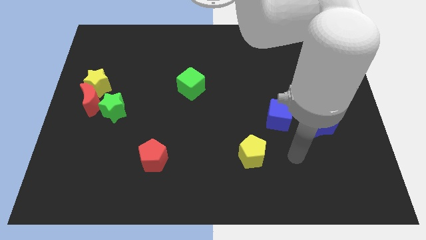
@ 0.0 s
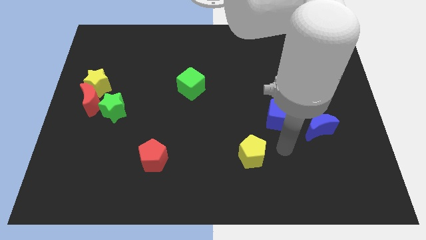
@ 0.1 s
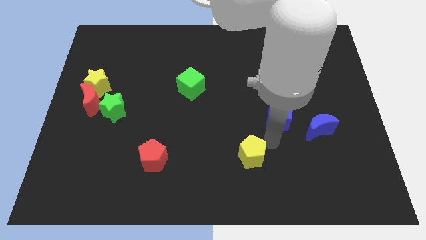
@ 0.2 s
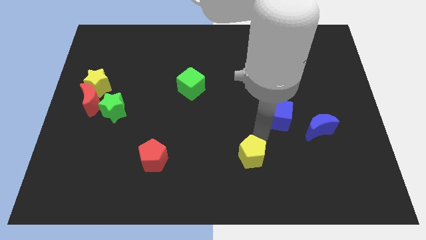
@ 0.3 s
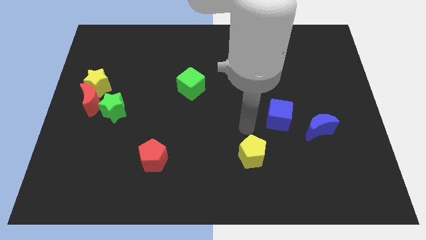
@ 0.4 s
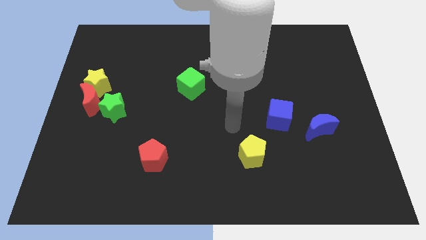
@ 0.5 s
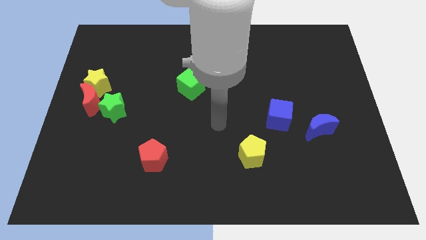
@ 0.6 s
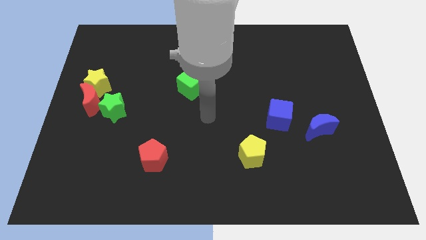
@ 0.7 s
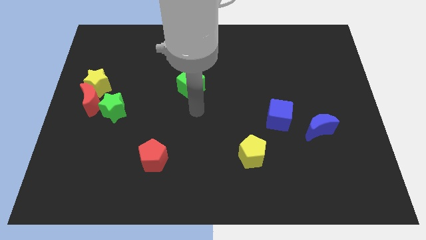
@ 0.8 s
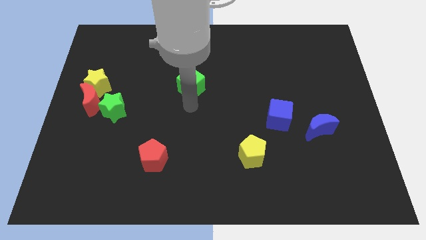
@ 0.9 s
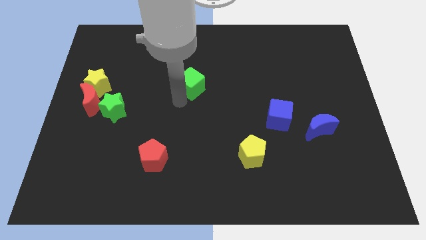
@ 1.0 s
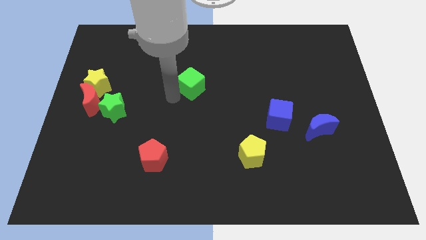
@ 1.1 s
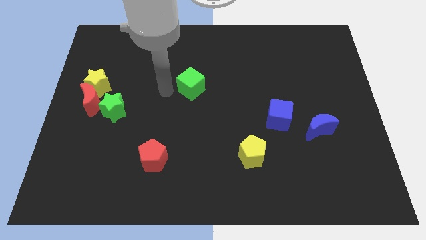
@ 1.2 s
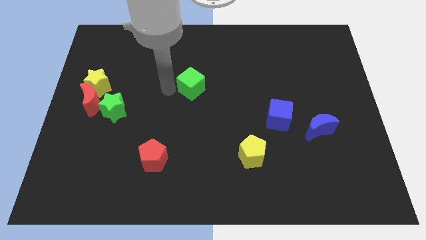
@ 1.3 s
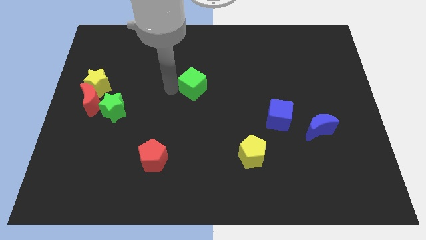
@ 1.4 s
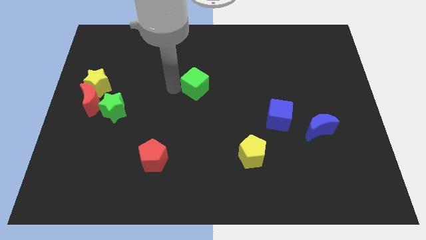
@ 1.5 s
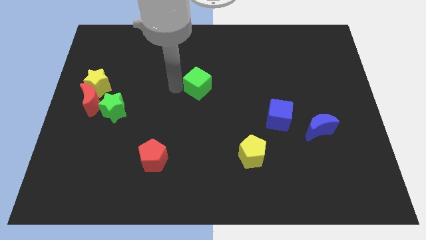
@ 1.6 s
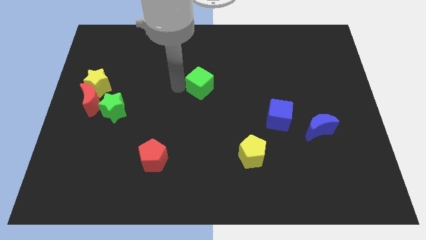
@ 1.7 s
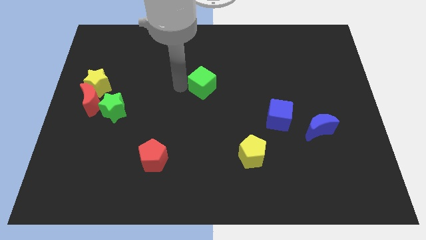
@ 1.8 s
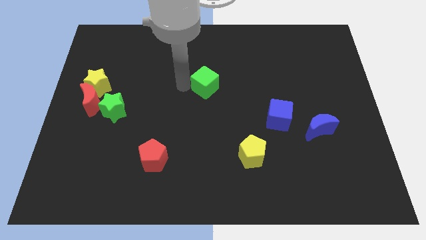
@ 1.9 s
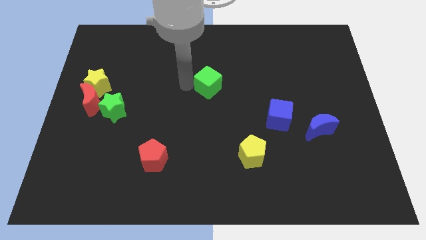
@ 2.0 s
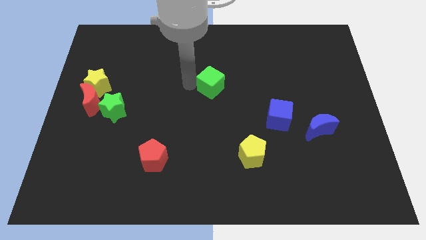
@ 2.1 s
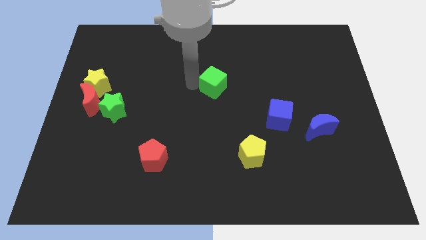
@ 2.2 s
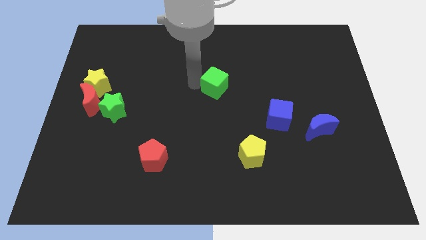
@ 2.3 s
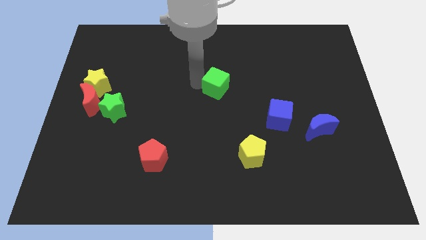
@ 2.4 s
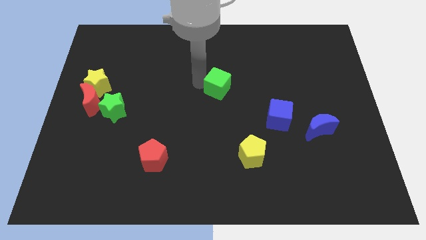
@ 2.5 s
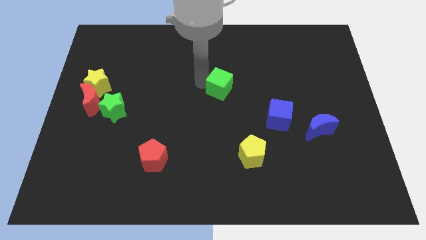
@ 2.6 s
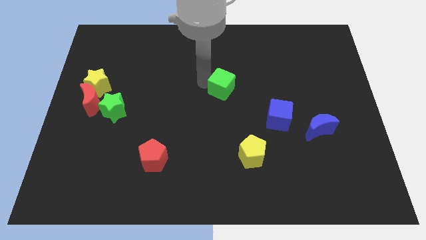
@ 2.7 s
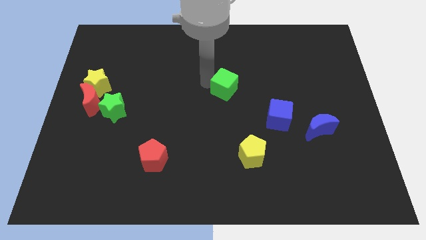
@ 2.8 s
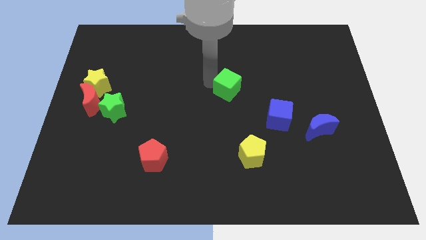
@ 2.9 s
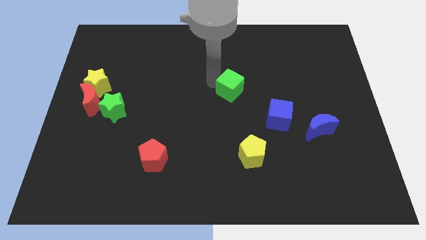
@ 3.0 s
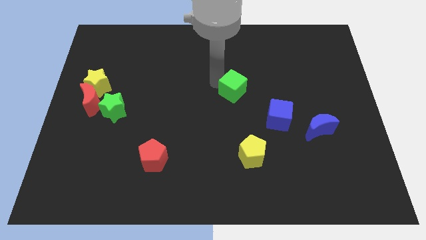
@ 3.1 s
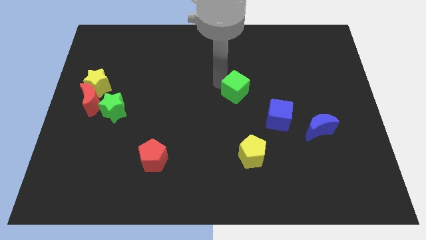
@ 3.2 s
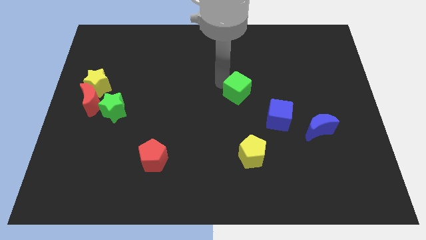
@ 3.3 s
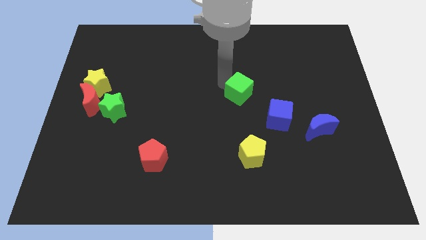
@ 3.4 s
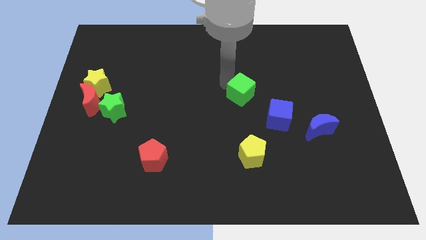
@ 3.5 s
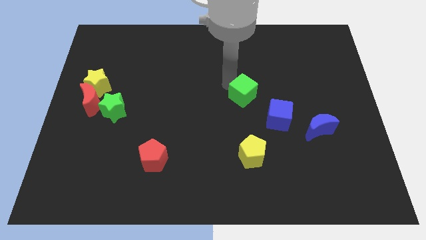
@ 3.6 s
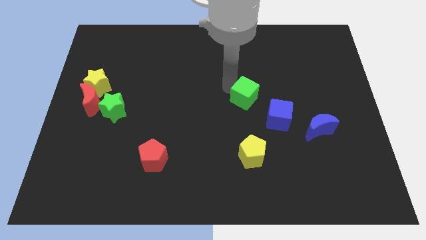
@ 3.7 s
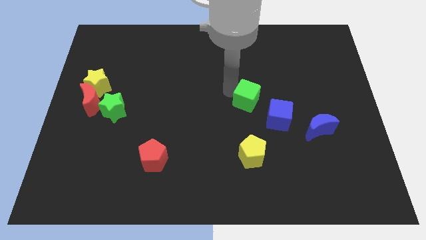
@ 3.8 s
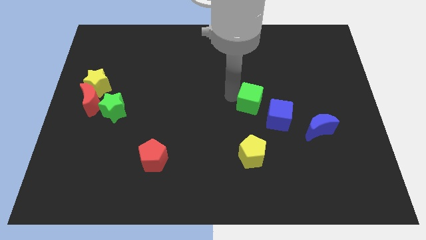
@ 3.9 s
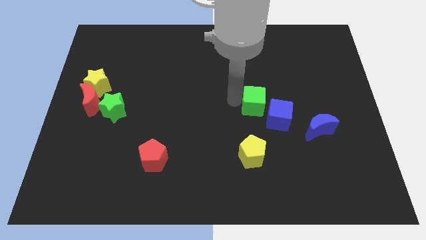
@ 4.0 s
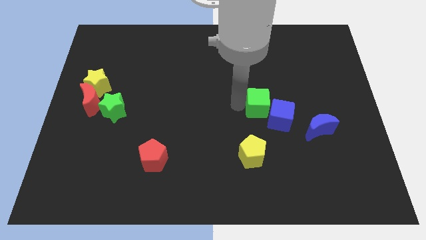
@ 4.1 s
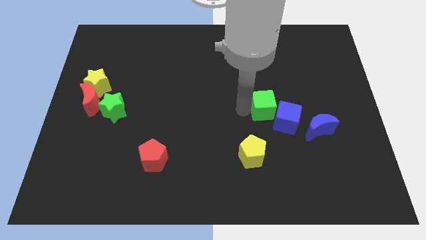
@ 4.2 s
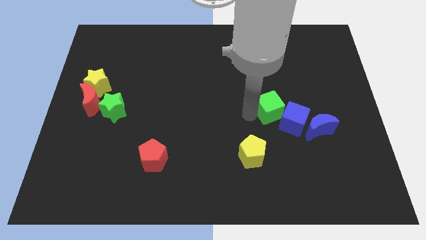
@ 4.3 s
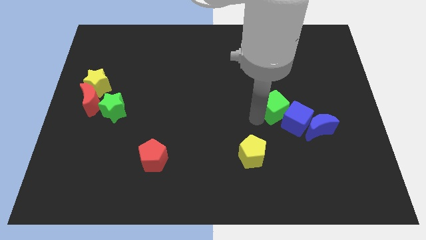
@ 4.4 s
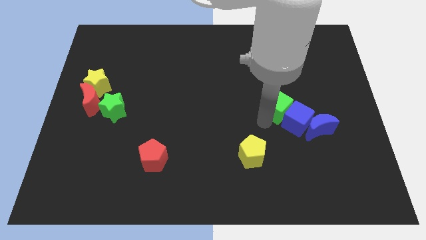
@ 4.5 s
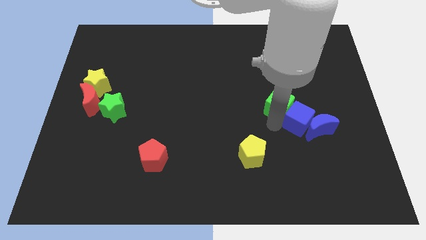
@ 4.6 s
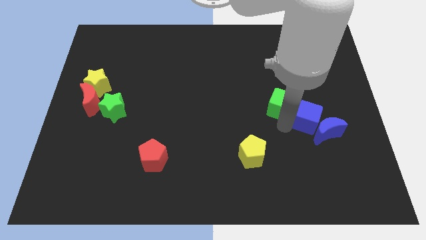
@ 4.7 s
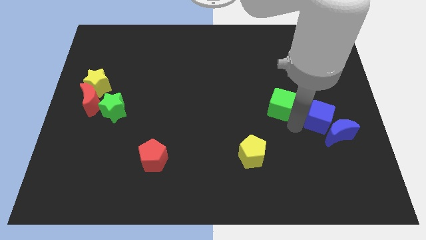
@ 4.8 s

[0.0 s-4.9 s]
move the green cube to the right

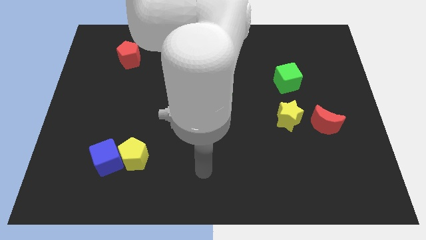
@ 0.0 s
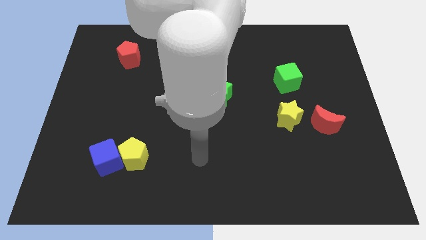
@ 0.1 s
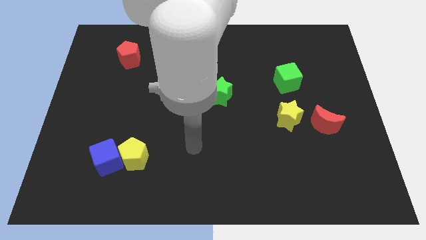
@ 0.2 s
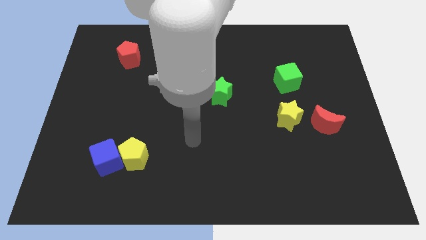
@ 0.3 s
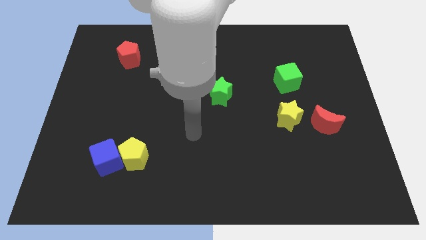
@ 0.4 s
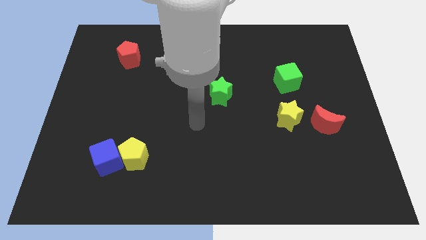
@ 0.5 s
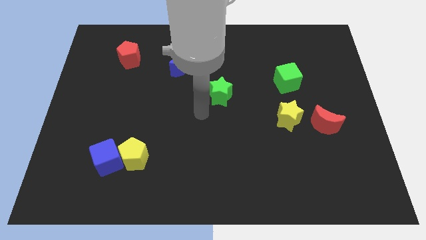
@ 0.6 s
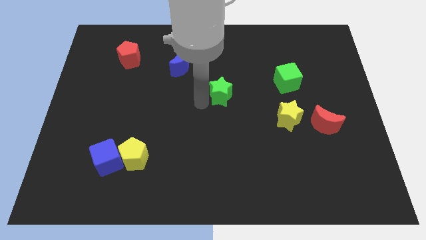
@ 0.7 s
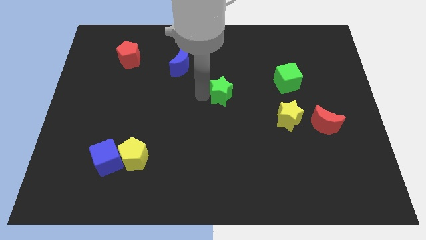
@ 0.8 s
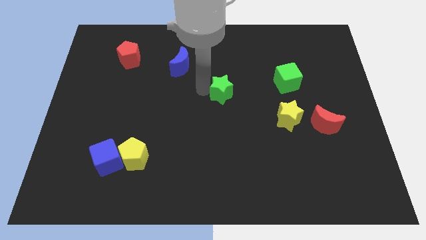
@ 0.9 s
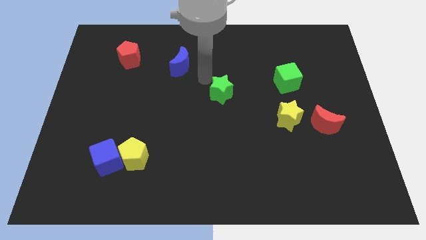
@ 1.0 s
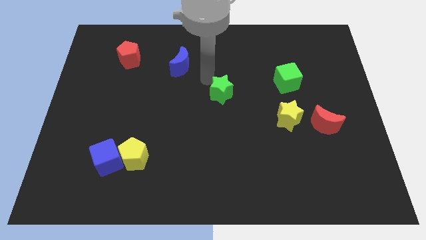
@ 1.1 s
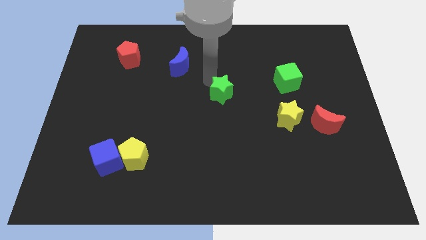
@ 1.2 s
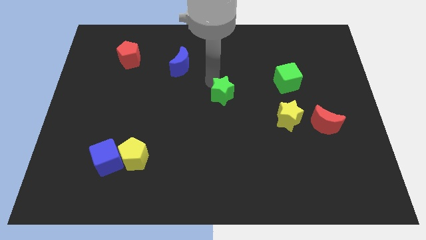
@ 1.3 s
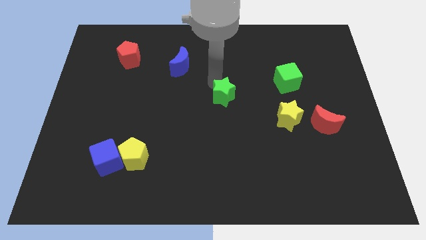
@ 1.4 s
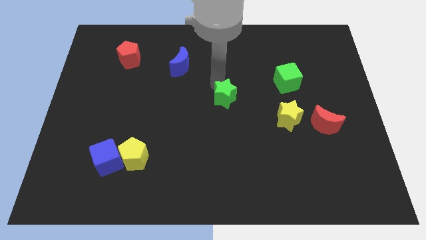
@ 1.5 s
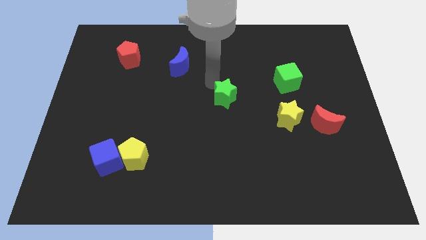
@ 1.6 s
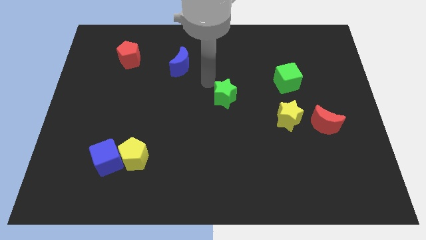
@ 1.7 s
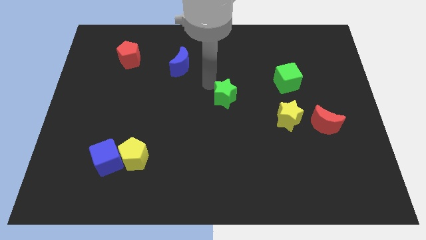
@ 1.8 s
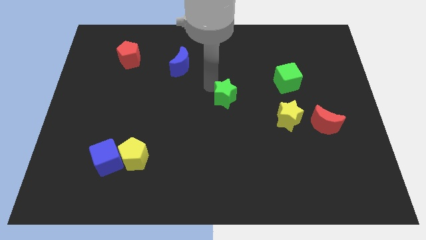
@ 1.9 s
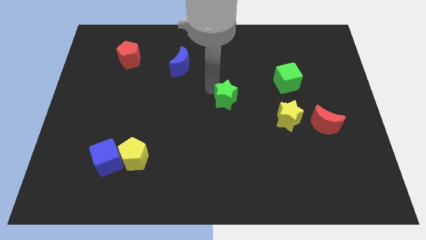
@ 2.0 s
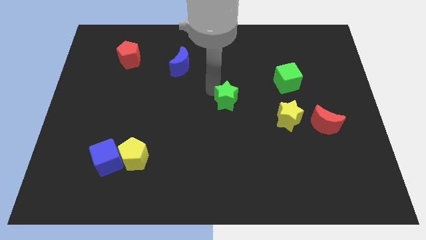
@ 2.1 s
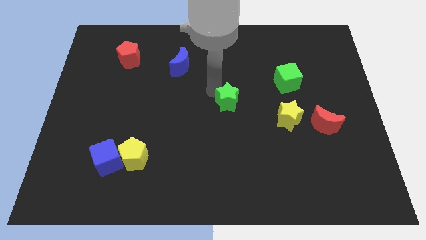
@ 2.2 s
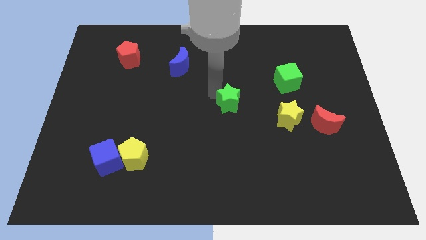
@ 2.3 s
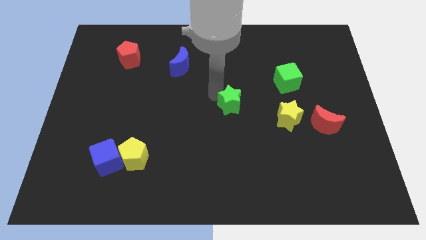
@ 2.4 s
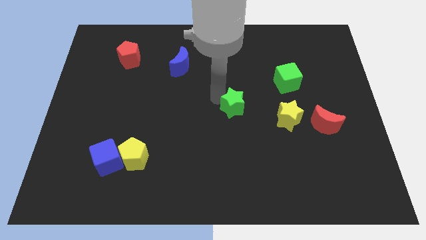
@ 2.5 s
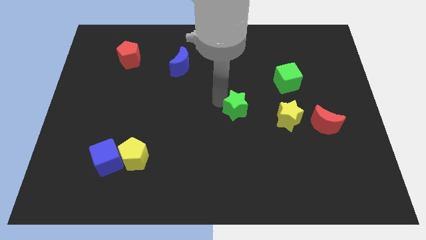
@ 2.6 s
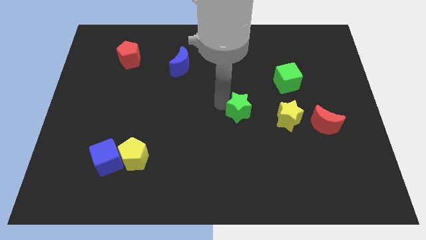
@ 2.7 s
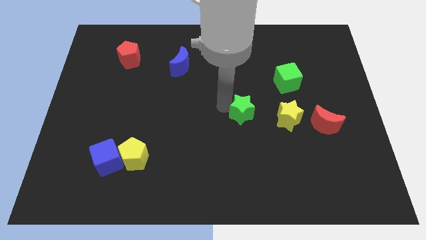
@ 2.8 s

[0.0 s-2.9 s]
slide the green star slightly down and to the right diagonally
